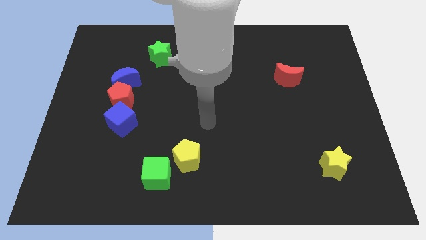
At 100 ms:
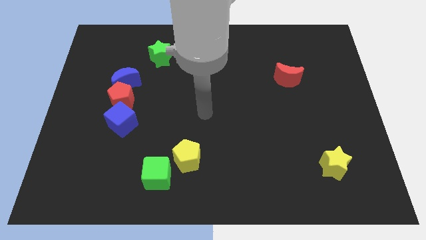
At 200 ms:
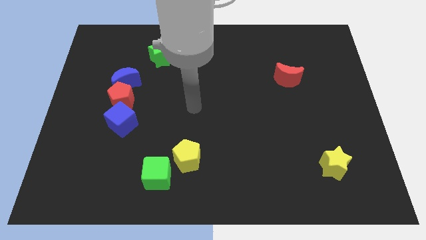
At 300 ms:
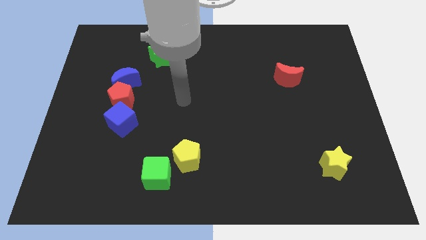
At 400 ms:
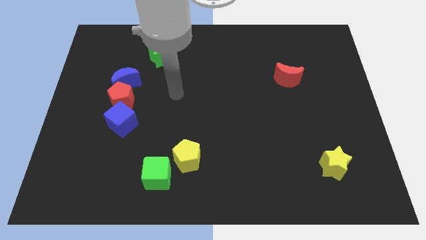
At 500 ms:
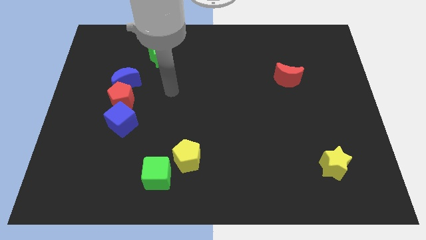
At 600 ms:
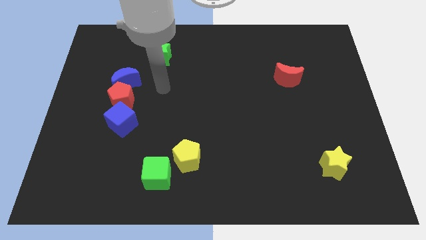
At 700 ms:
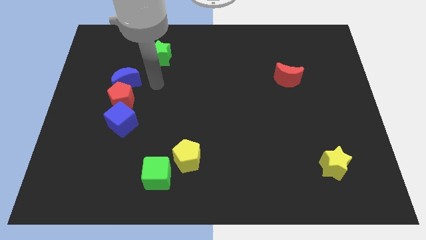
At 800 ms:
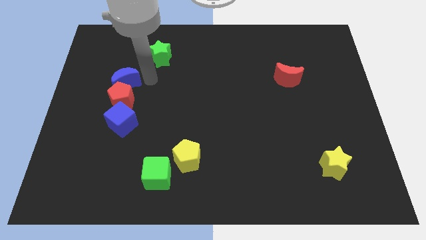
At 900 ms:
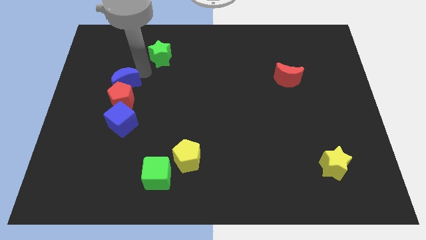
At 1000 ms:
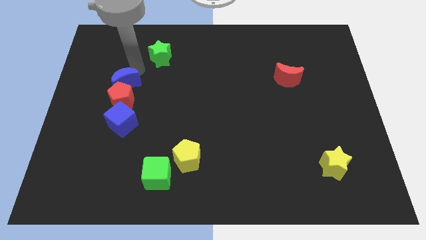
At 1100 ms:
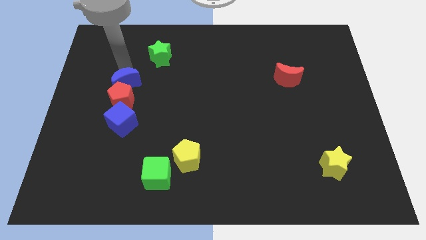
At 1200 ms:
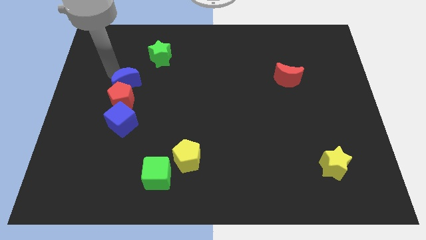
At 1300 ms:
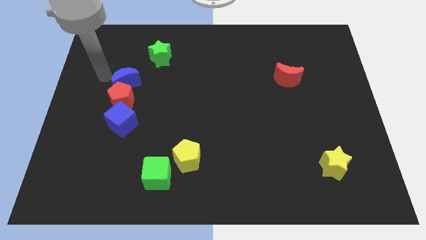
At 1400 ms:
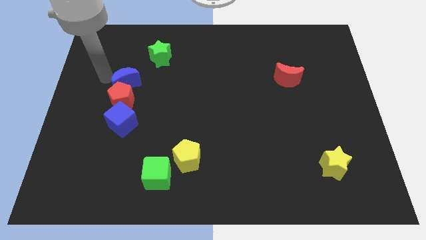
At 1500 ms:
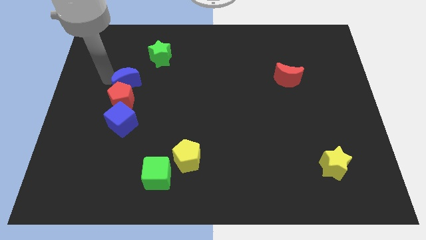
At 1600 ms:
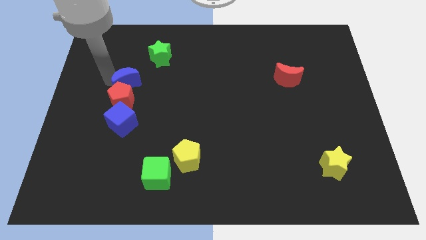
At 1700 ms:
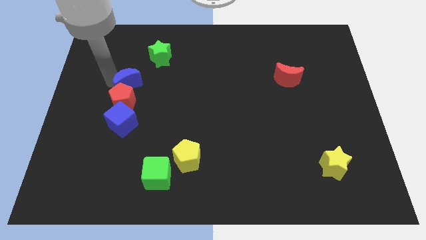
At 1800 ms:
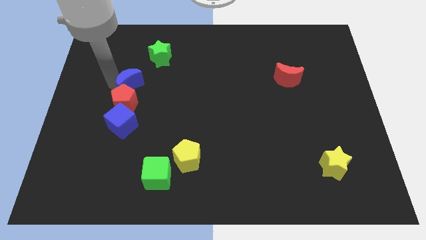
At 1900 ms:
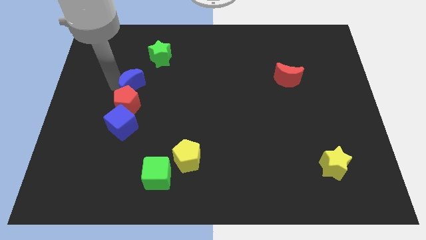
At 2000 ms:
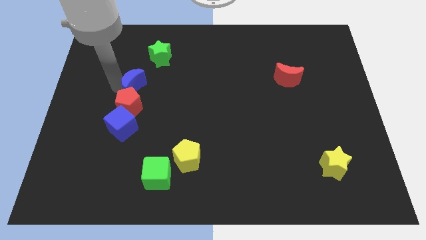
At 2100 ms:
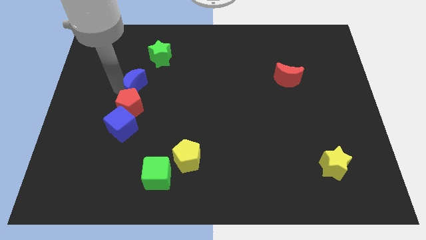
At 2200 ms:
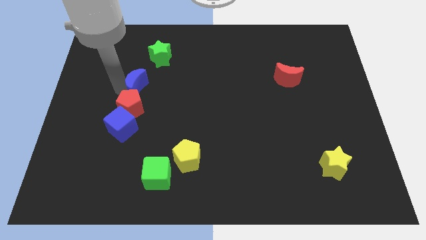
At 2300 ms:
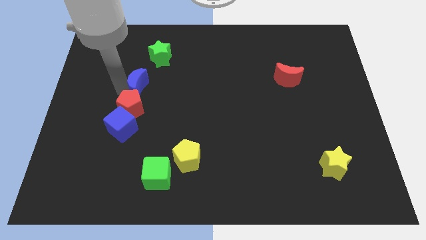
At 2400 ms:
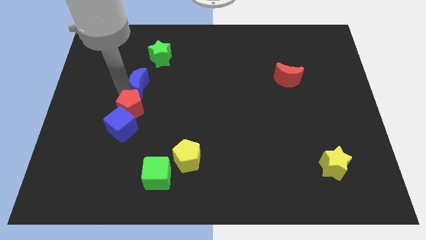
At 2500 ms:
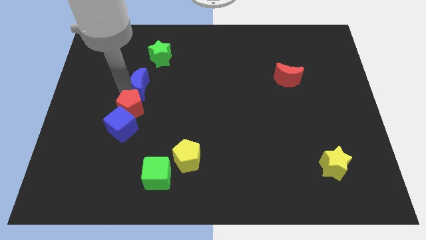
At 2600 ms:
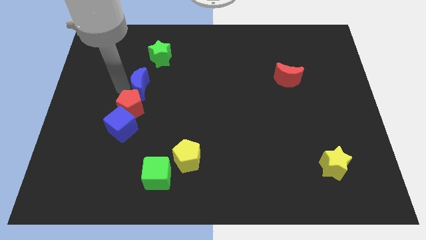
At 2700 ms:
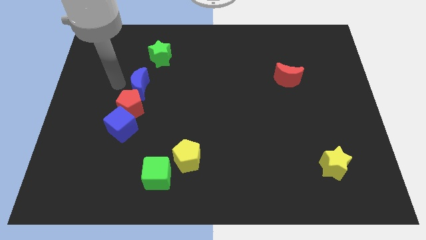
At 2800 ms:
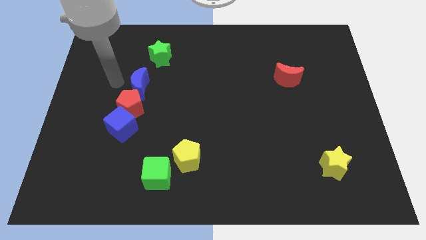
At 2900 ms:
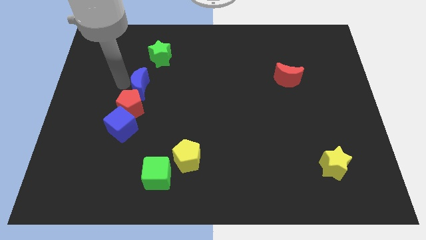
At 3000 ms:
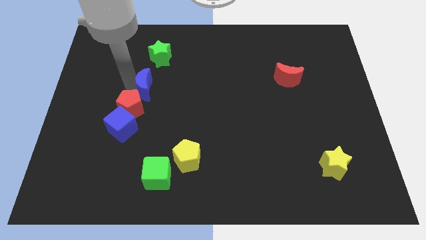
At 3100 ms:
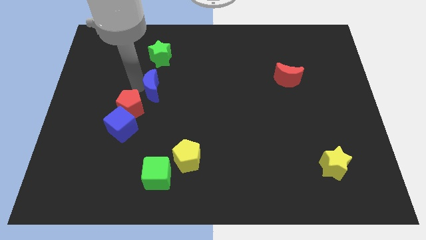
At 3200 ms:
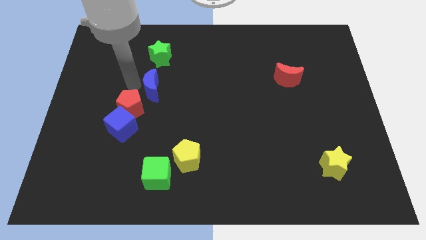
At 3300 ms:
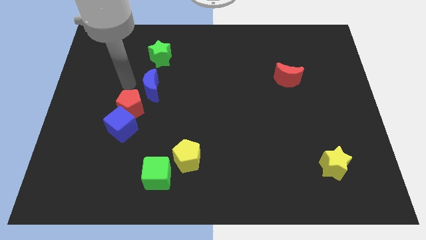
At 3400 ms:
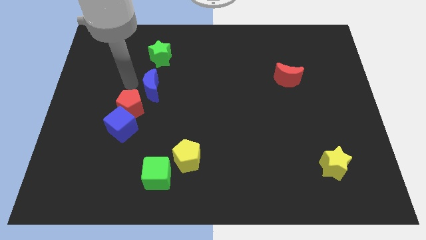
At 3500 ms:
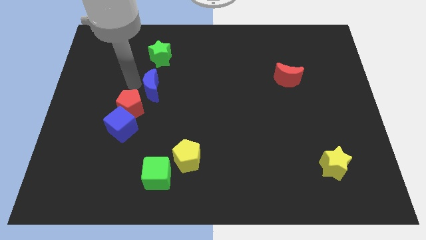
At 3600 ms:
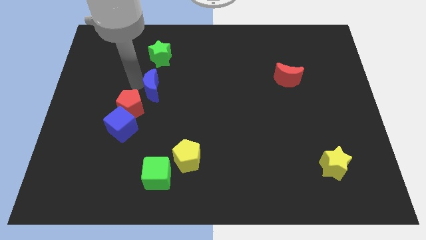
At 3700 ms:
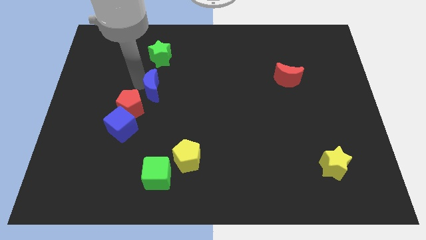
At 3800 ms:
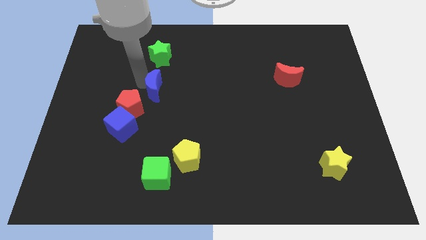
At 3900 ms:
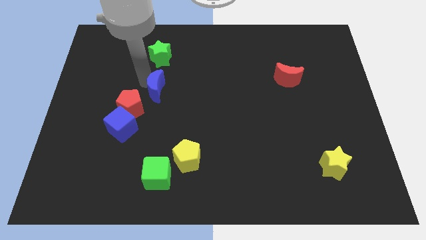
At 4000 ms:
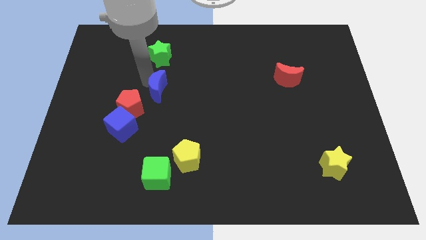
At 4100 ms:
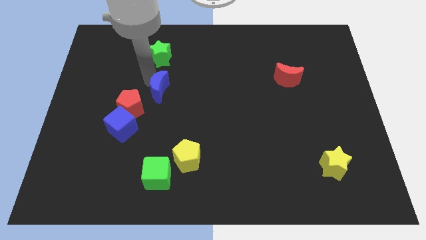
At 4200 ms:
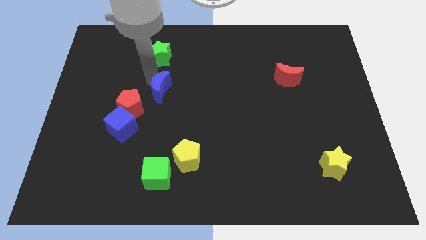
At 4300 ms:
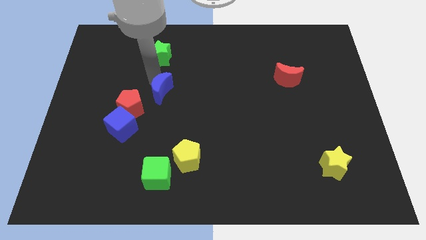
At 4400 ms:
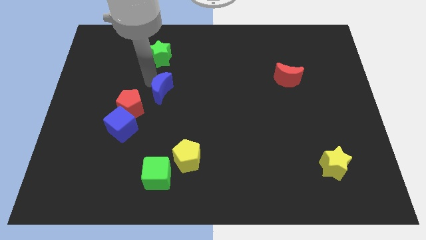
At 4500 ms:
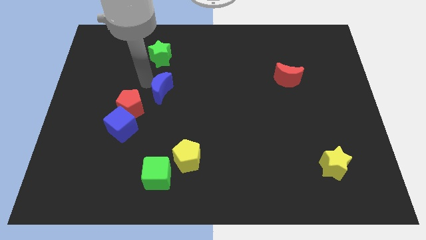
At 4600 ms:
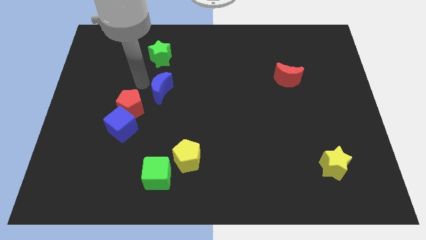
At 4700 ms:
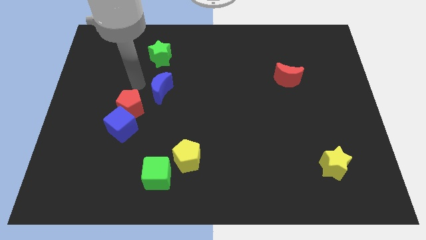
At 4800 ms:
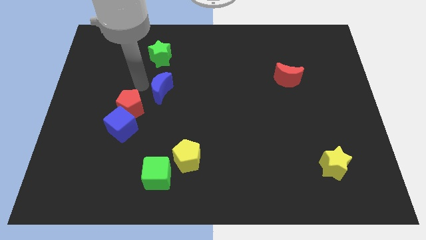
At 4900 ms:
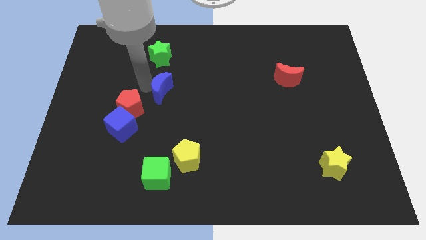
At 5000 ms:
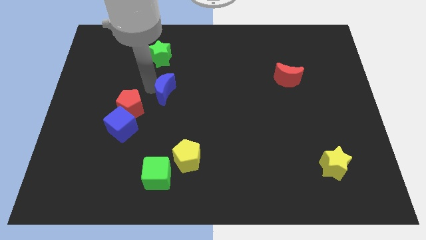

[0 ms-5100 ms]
push the blue moon to the center
